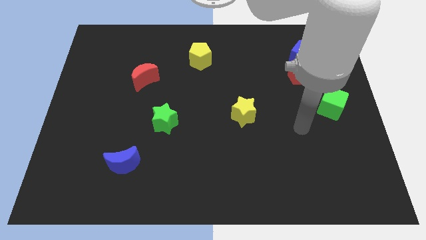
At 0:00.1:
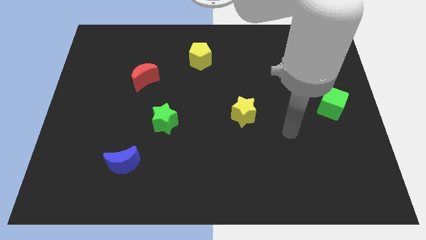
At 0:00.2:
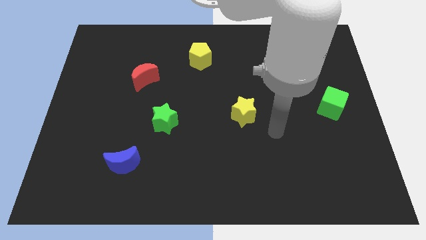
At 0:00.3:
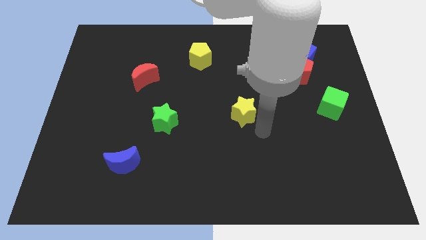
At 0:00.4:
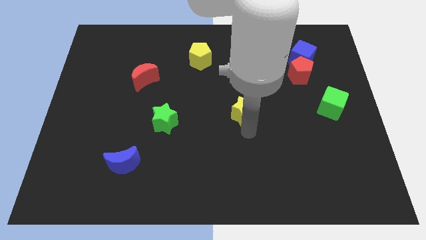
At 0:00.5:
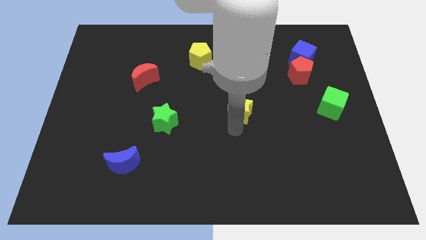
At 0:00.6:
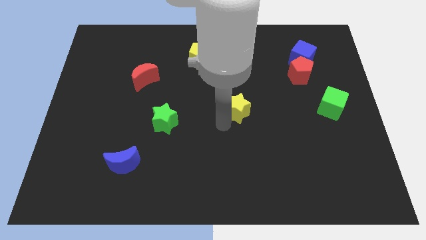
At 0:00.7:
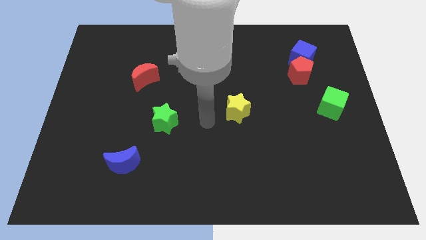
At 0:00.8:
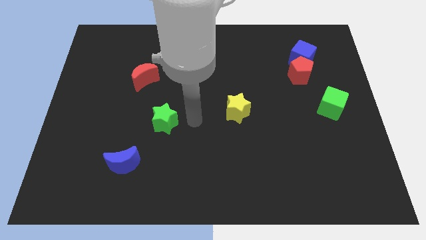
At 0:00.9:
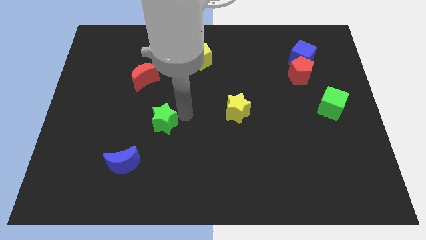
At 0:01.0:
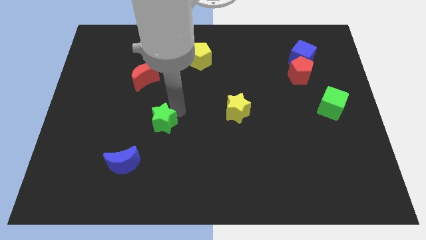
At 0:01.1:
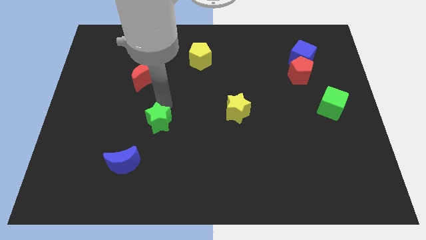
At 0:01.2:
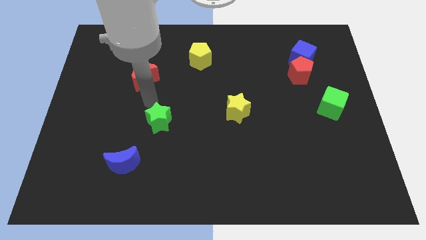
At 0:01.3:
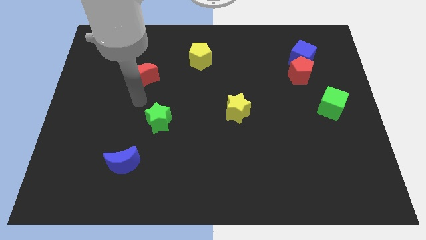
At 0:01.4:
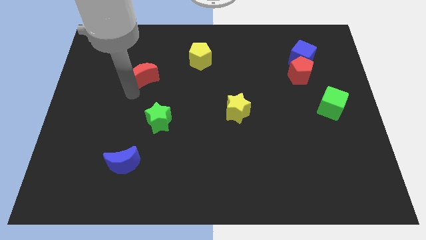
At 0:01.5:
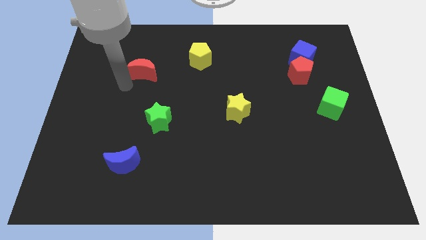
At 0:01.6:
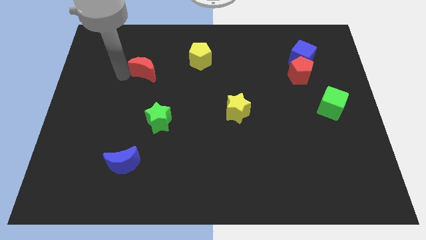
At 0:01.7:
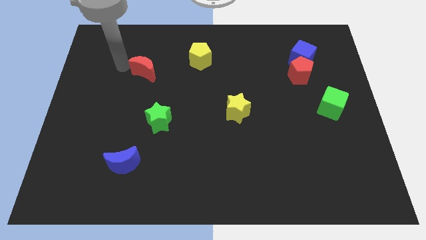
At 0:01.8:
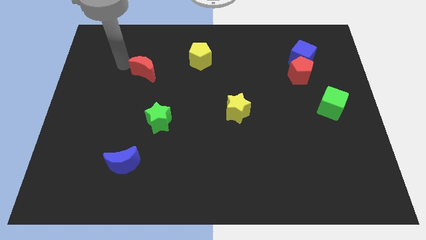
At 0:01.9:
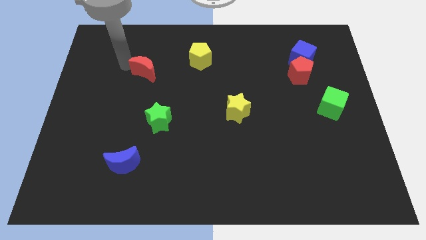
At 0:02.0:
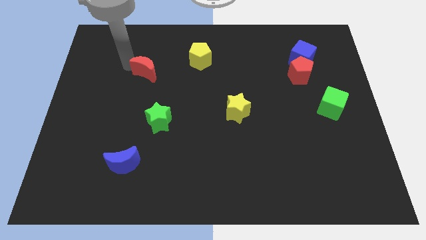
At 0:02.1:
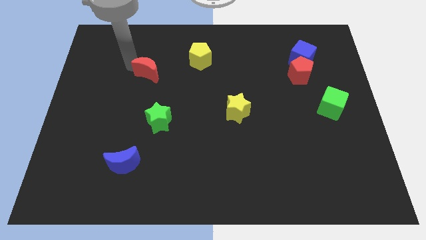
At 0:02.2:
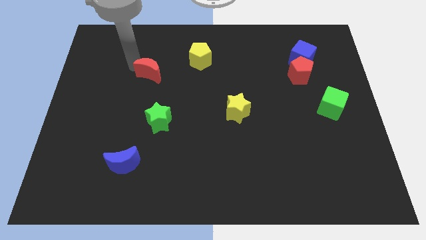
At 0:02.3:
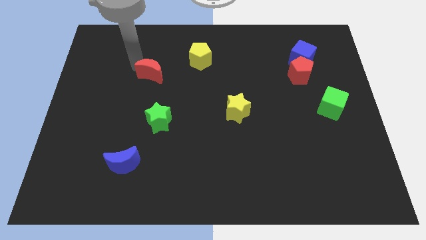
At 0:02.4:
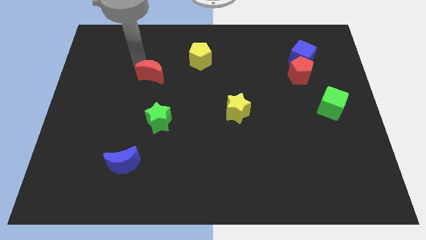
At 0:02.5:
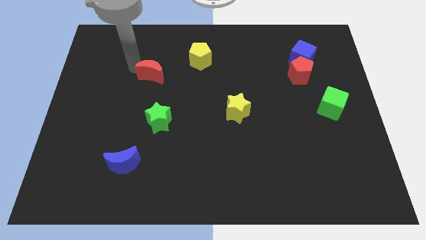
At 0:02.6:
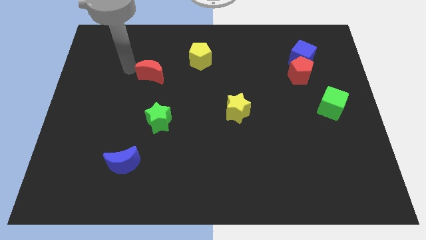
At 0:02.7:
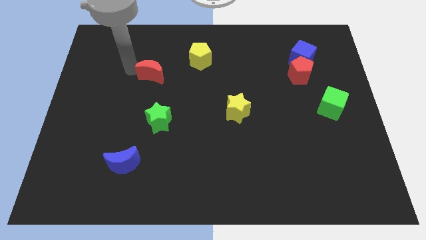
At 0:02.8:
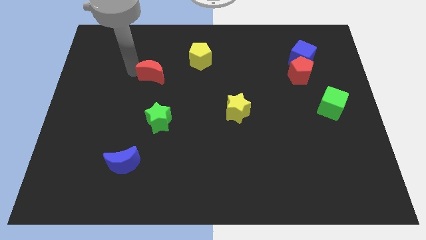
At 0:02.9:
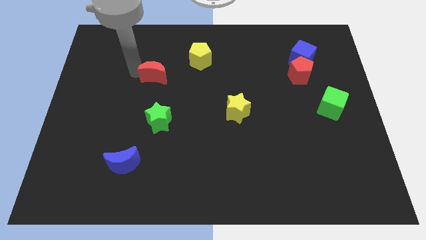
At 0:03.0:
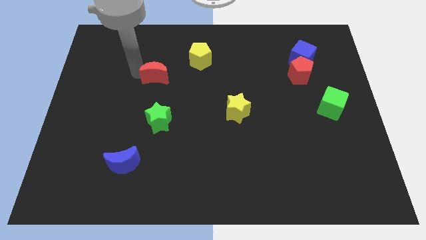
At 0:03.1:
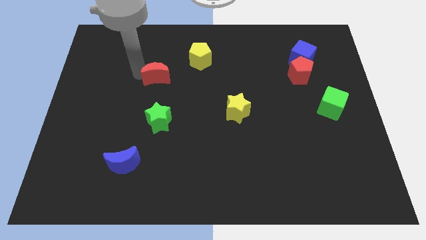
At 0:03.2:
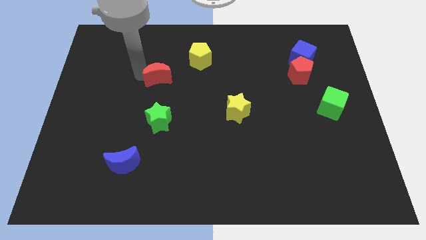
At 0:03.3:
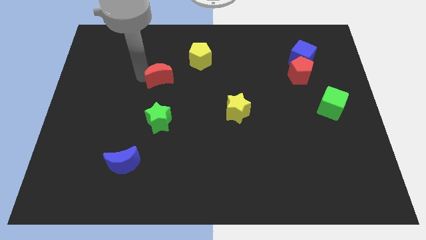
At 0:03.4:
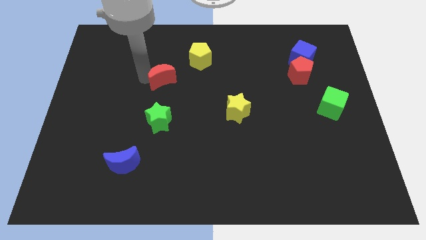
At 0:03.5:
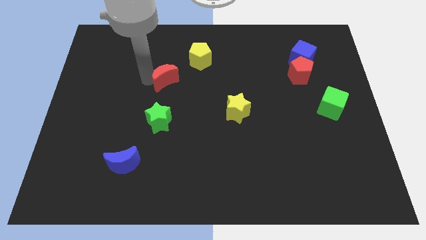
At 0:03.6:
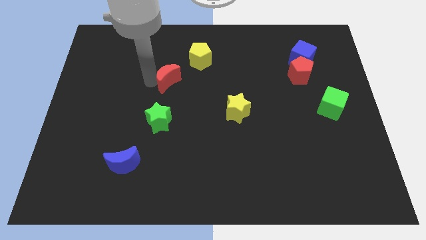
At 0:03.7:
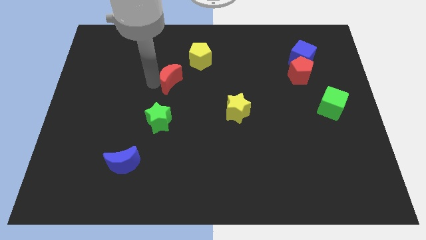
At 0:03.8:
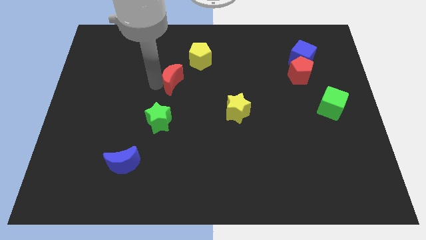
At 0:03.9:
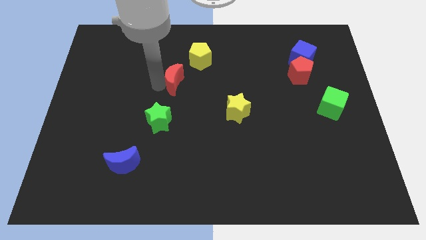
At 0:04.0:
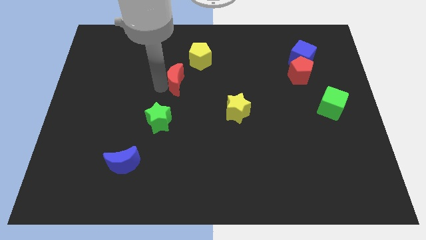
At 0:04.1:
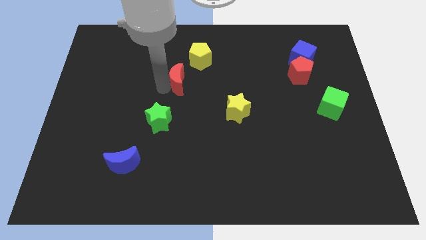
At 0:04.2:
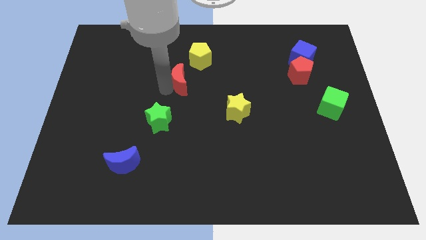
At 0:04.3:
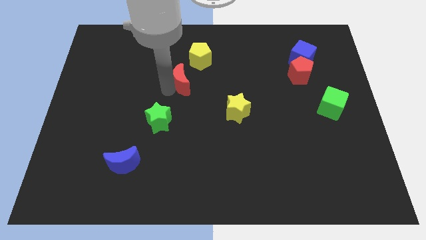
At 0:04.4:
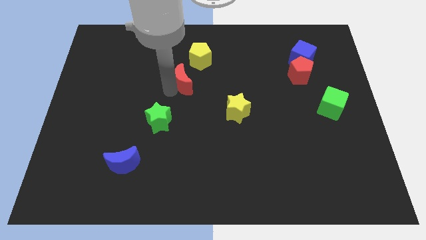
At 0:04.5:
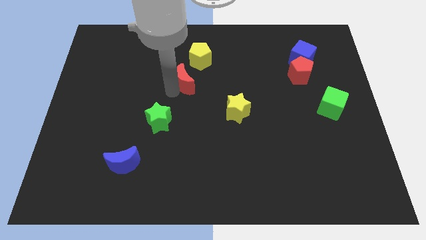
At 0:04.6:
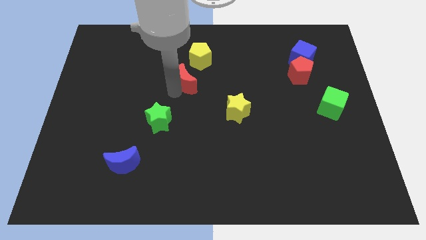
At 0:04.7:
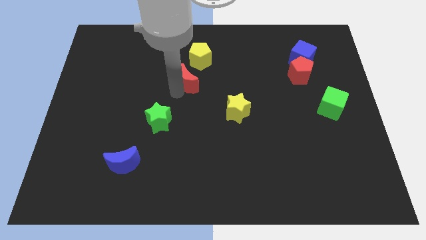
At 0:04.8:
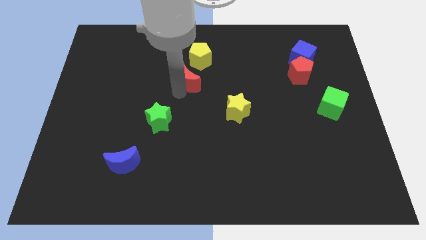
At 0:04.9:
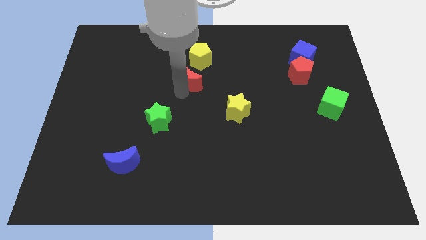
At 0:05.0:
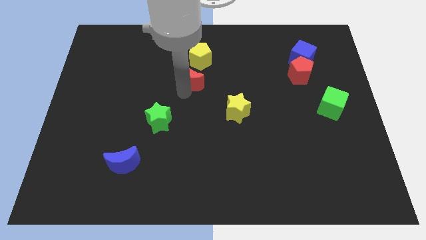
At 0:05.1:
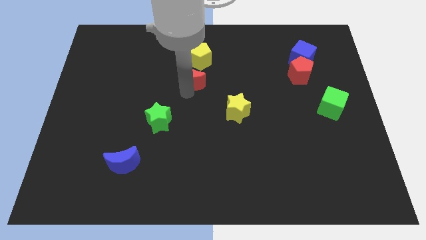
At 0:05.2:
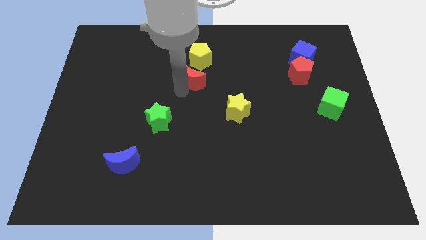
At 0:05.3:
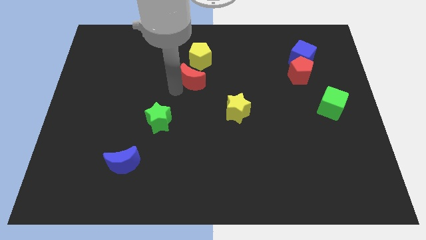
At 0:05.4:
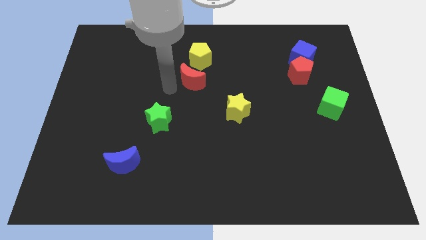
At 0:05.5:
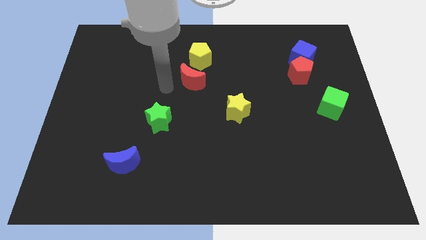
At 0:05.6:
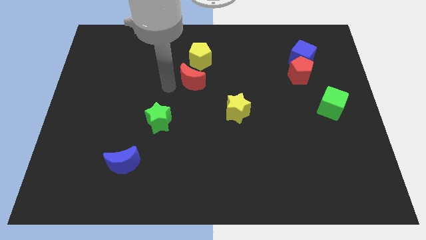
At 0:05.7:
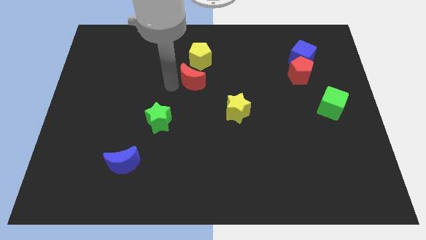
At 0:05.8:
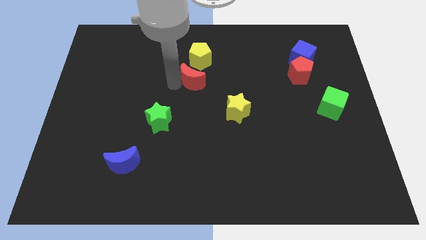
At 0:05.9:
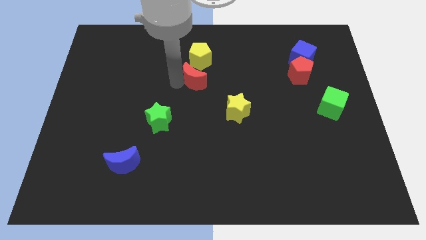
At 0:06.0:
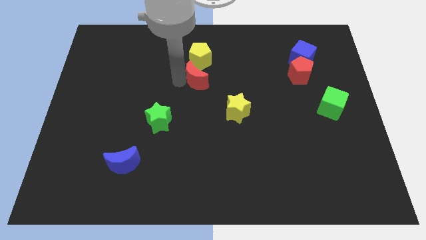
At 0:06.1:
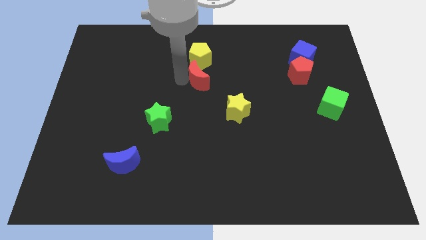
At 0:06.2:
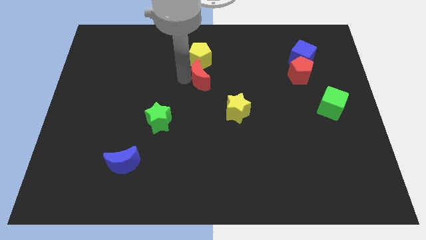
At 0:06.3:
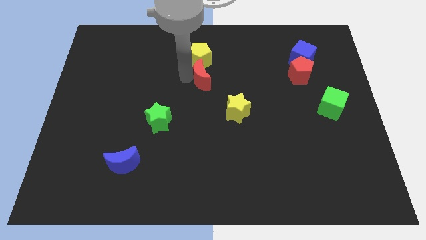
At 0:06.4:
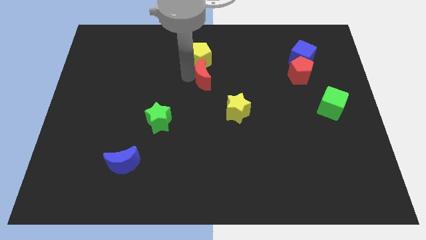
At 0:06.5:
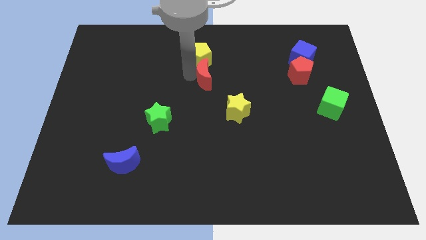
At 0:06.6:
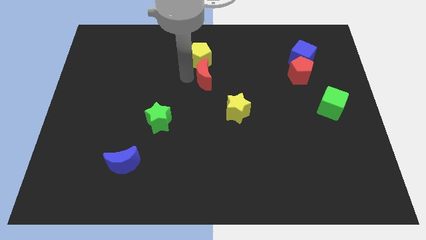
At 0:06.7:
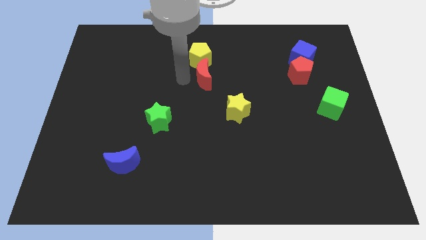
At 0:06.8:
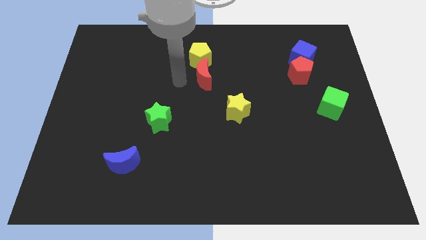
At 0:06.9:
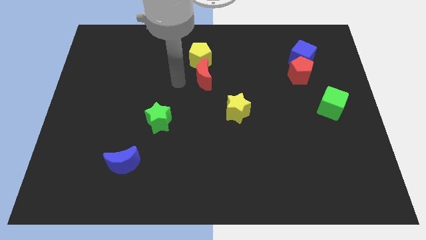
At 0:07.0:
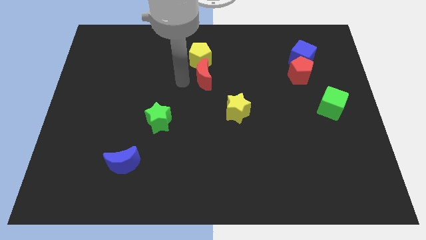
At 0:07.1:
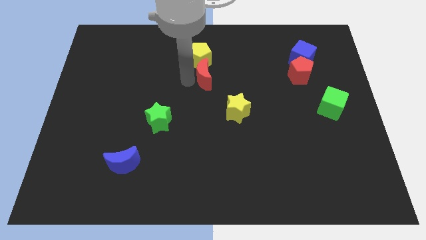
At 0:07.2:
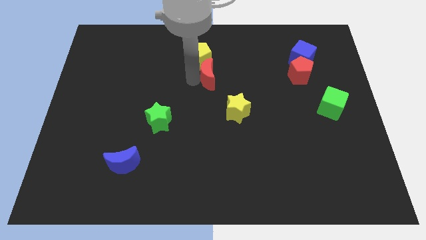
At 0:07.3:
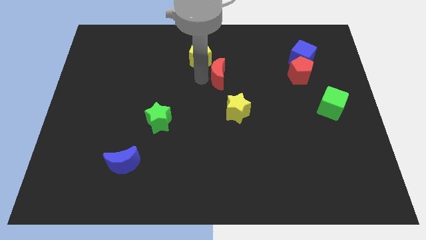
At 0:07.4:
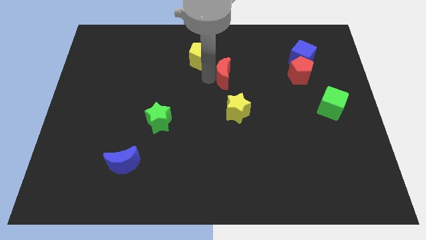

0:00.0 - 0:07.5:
move the red moon right

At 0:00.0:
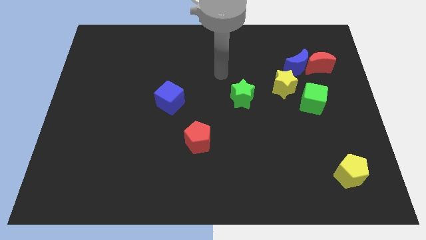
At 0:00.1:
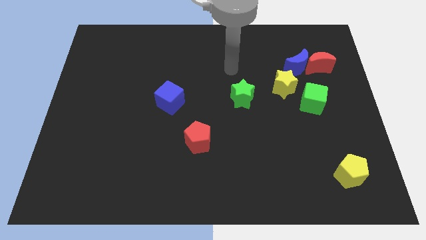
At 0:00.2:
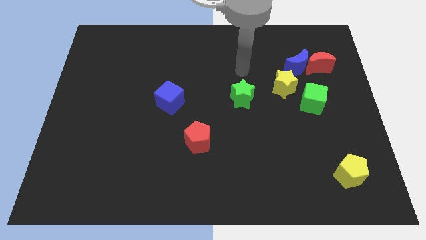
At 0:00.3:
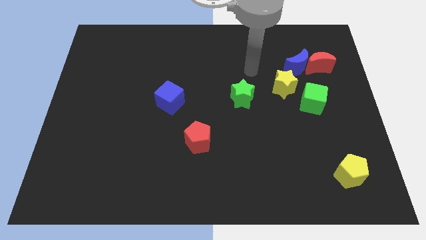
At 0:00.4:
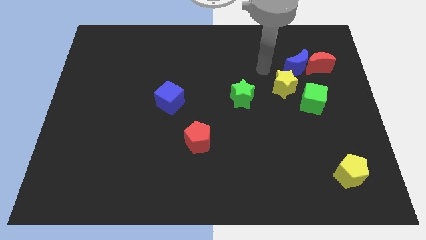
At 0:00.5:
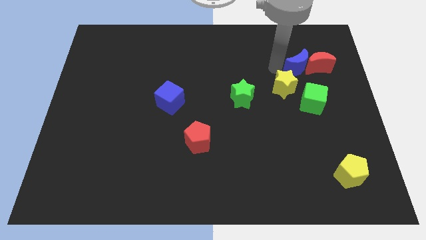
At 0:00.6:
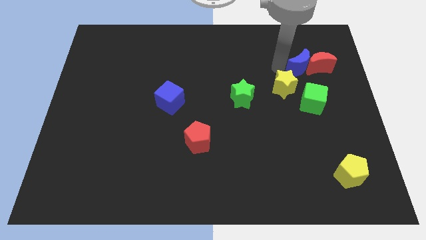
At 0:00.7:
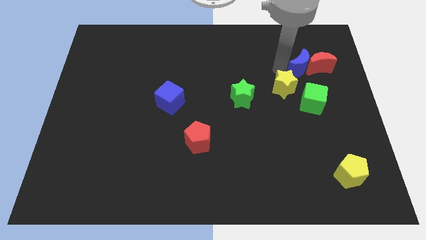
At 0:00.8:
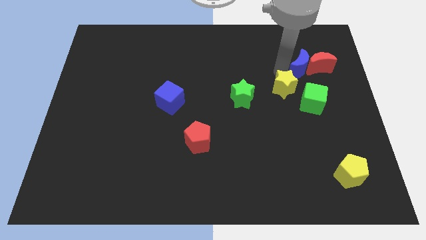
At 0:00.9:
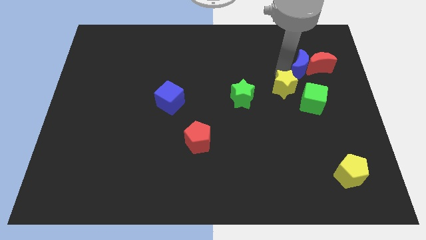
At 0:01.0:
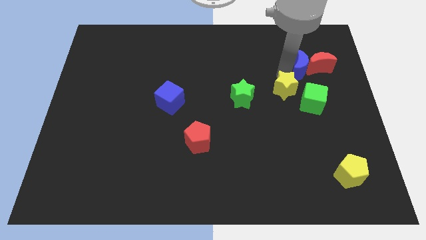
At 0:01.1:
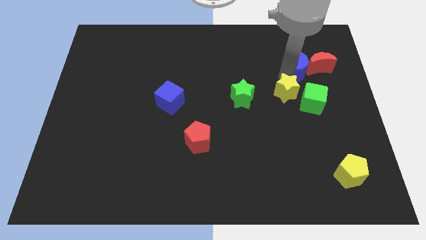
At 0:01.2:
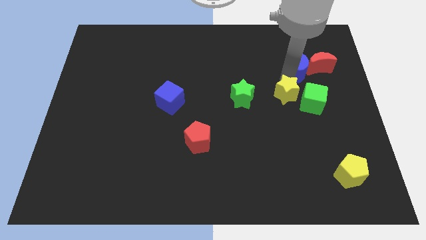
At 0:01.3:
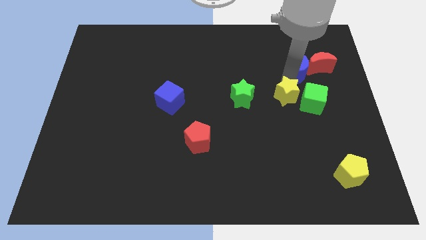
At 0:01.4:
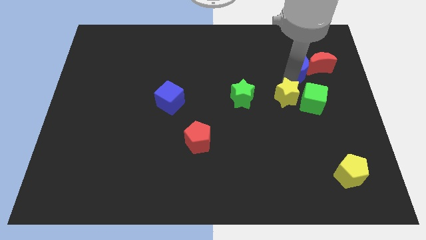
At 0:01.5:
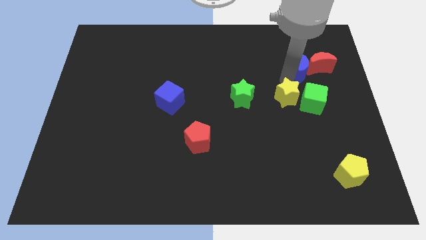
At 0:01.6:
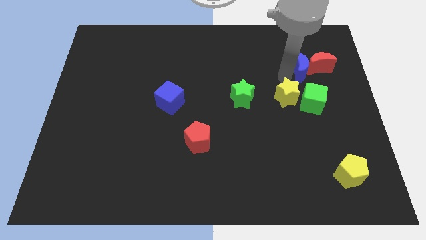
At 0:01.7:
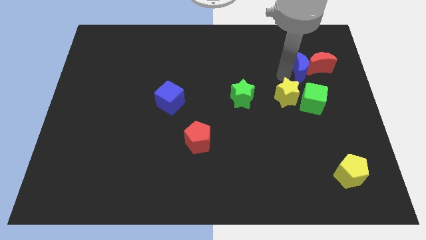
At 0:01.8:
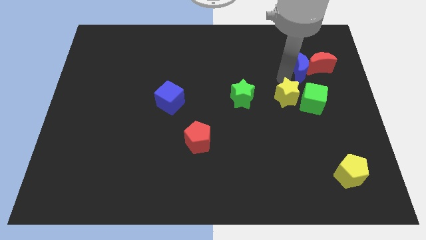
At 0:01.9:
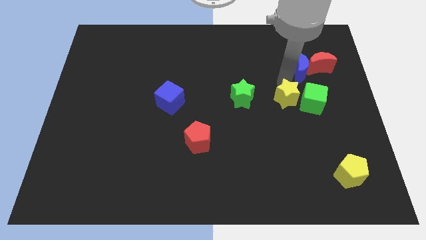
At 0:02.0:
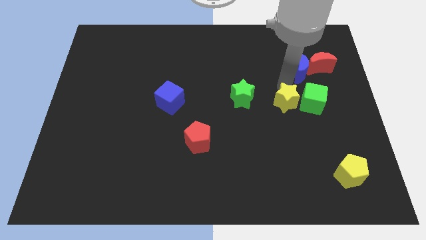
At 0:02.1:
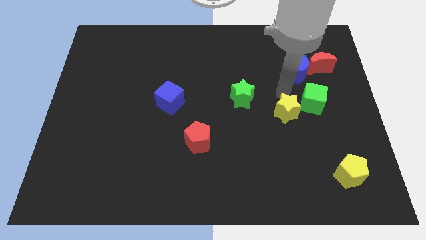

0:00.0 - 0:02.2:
move the yellow star down a little bit
